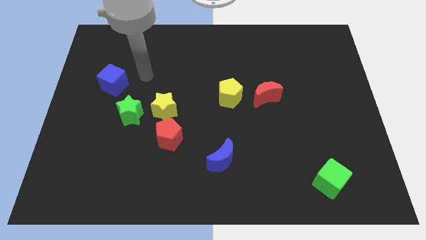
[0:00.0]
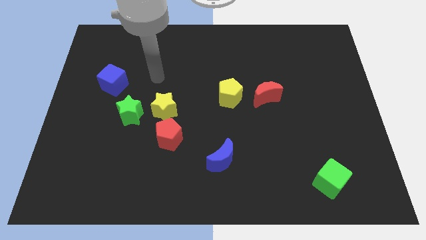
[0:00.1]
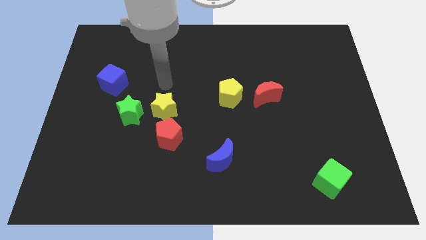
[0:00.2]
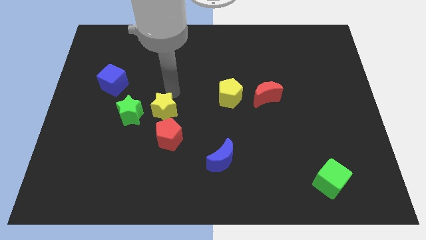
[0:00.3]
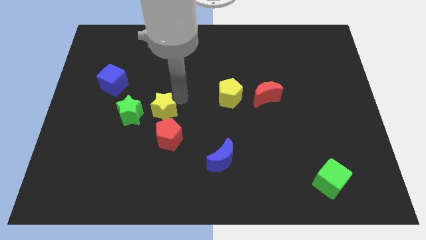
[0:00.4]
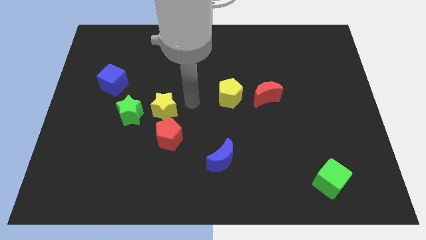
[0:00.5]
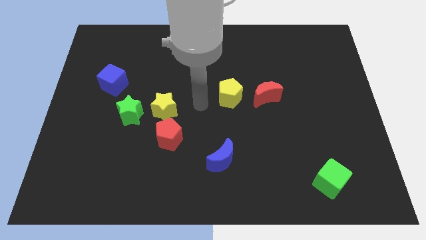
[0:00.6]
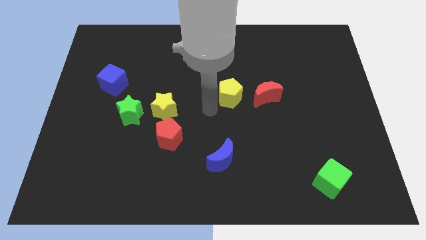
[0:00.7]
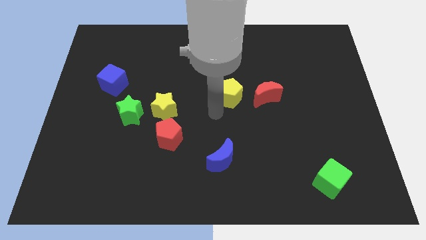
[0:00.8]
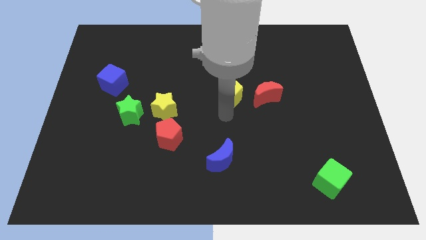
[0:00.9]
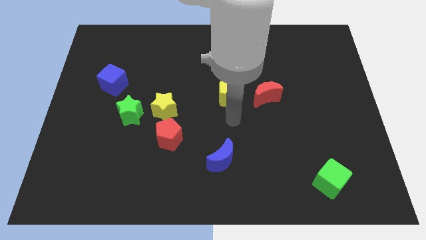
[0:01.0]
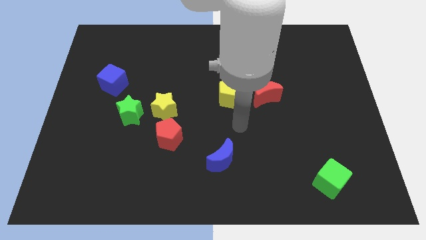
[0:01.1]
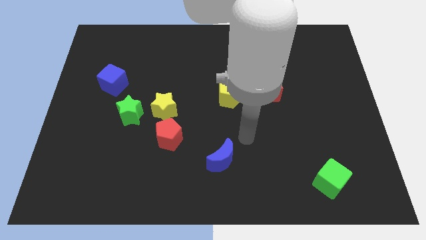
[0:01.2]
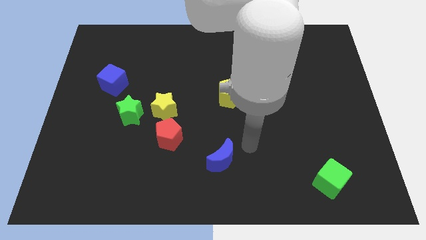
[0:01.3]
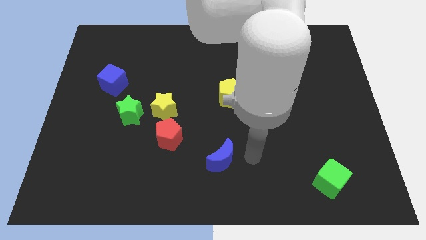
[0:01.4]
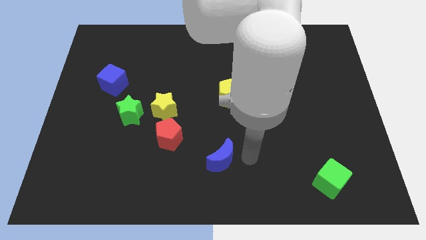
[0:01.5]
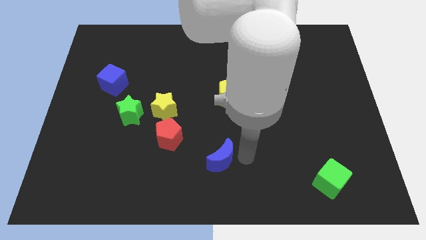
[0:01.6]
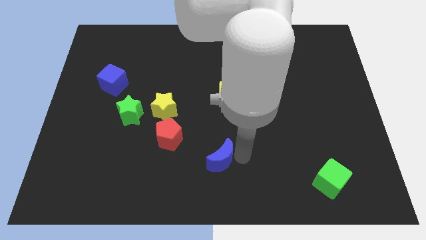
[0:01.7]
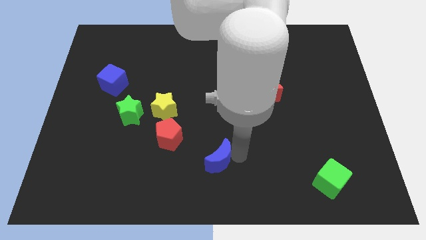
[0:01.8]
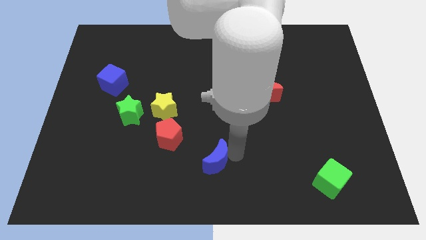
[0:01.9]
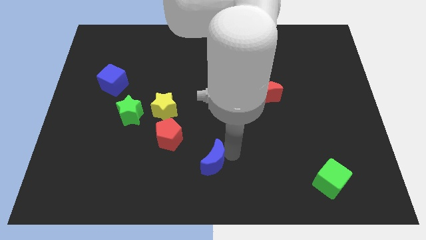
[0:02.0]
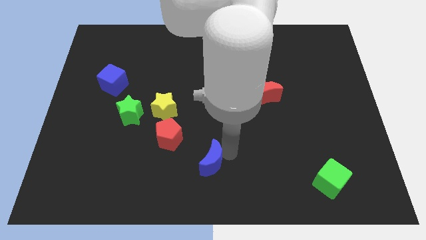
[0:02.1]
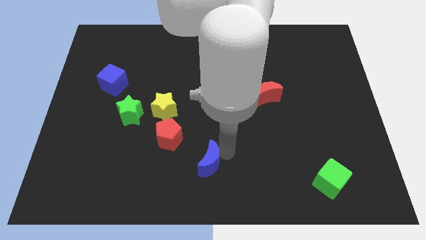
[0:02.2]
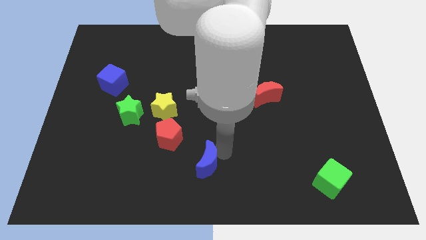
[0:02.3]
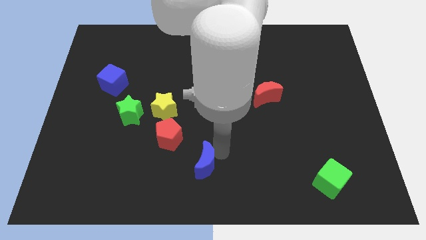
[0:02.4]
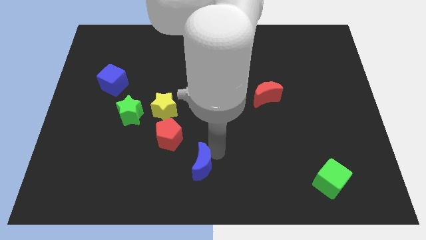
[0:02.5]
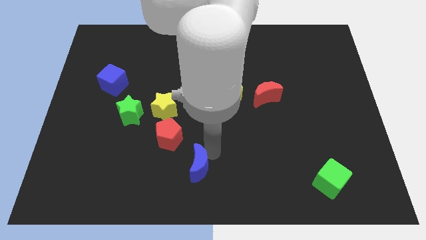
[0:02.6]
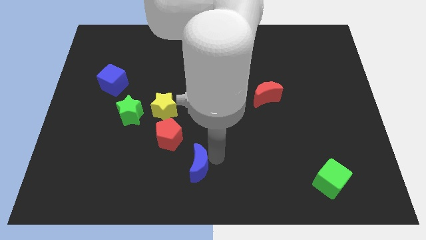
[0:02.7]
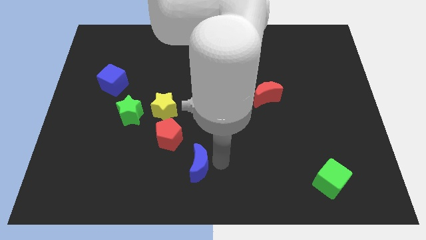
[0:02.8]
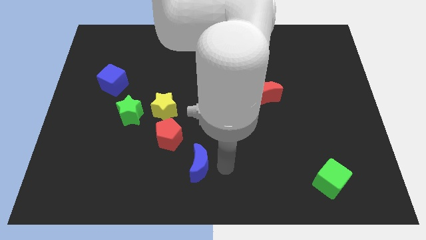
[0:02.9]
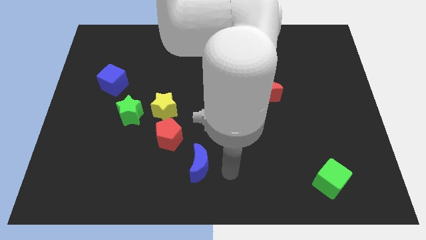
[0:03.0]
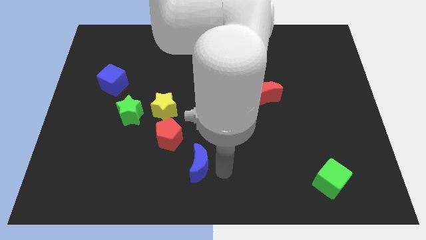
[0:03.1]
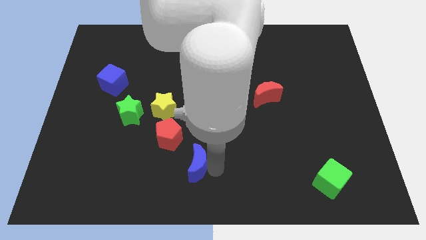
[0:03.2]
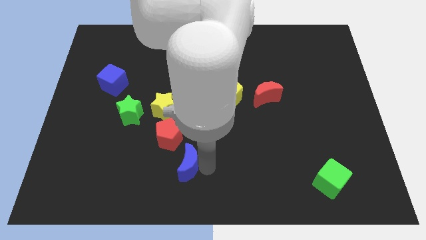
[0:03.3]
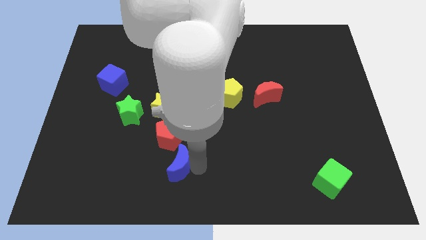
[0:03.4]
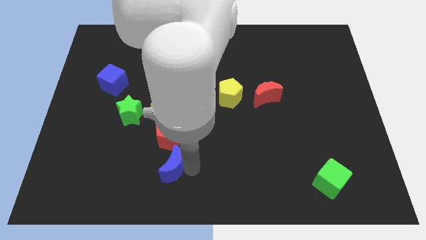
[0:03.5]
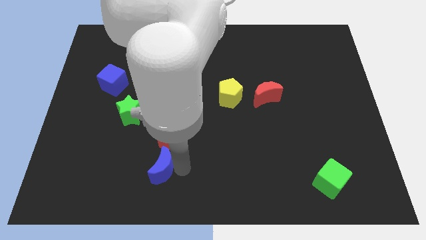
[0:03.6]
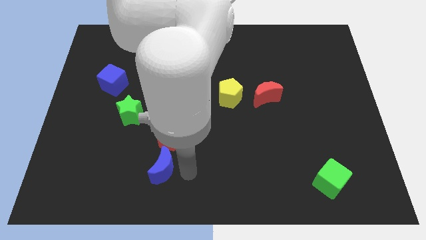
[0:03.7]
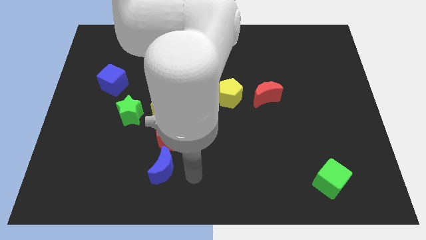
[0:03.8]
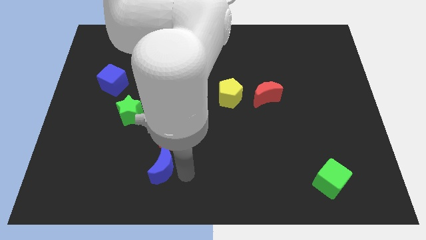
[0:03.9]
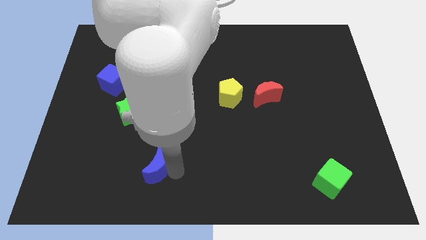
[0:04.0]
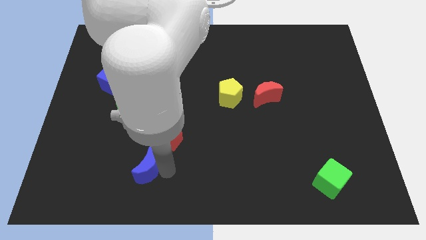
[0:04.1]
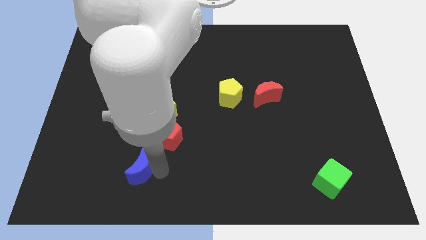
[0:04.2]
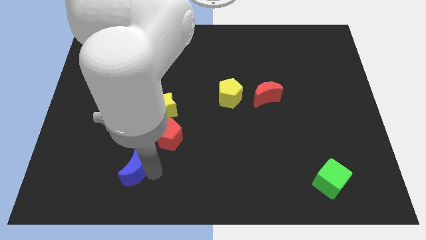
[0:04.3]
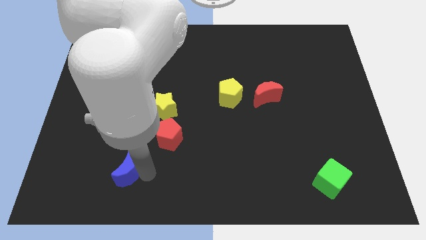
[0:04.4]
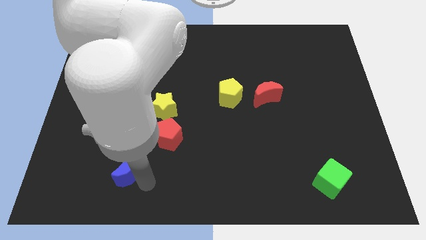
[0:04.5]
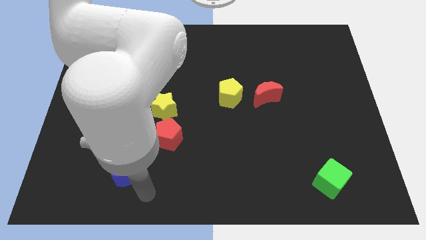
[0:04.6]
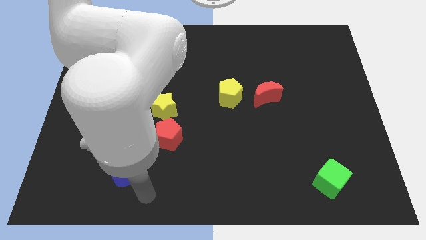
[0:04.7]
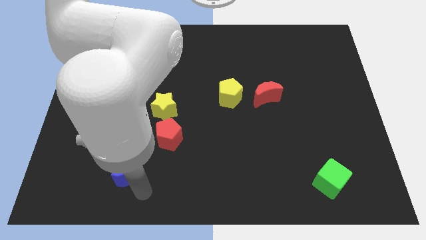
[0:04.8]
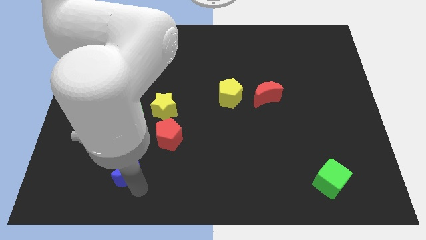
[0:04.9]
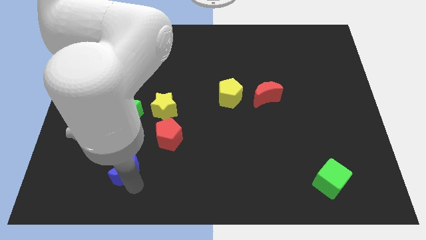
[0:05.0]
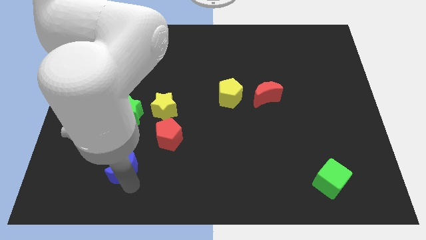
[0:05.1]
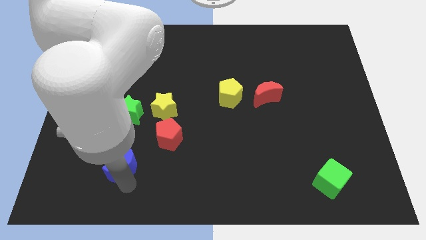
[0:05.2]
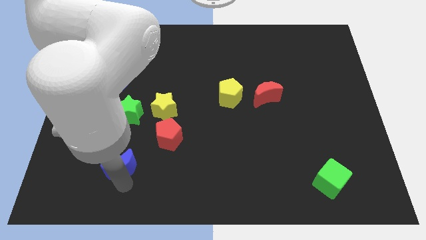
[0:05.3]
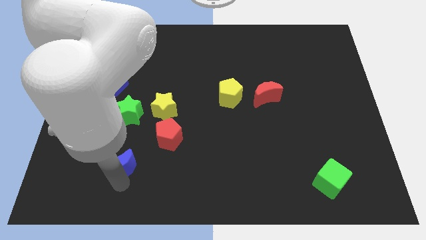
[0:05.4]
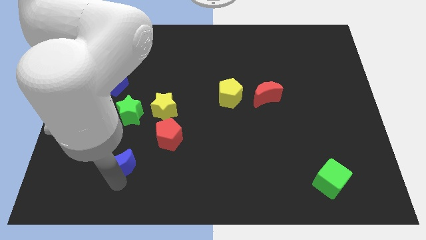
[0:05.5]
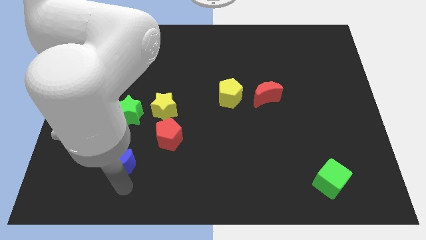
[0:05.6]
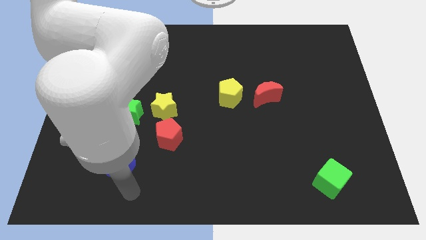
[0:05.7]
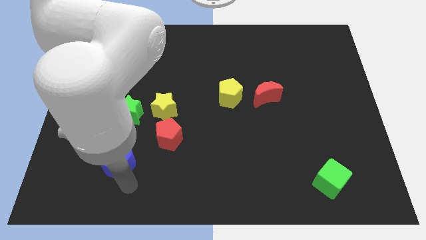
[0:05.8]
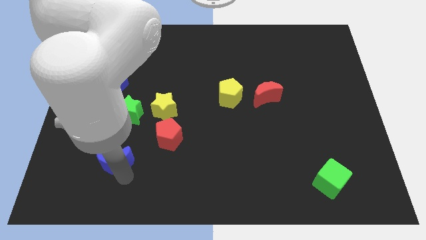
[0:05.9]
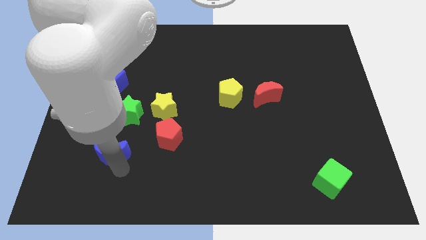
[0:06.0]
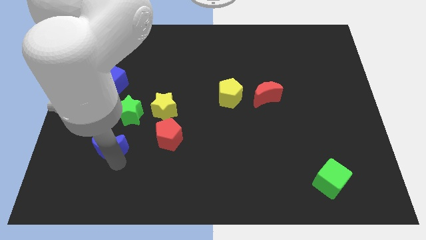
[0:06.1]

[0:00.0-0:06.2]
move the blue moon to the bottom left side of the green star

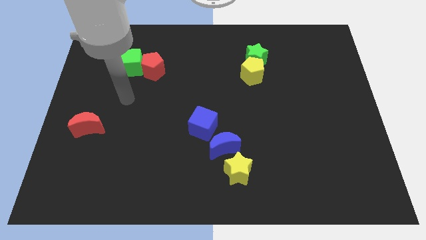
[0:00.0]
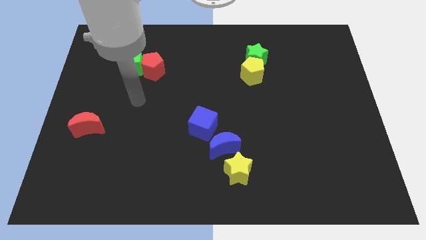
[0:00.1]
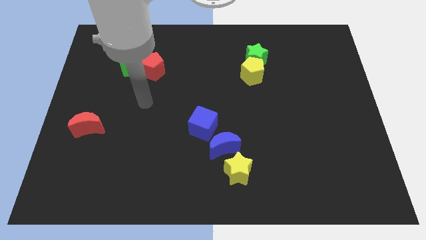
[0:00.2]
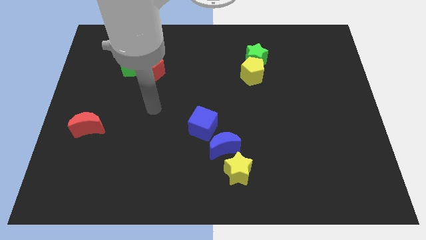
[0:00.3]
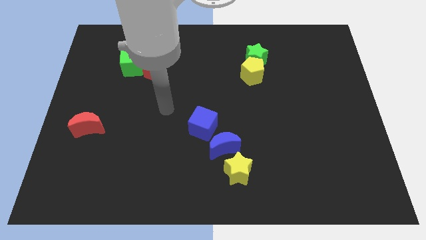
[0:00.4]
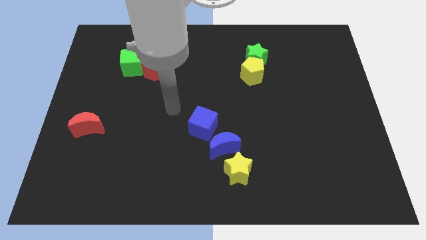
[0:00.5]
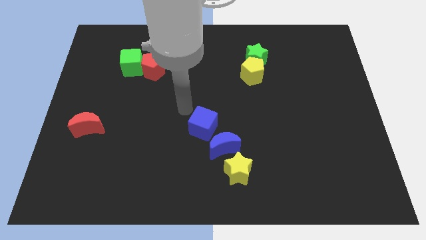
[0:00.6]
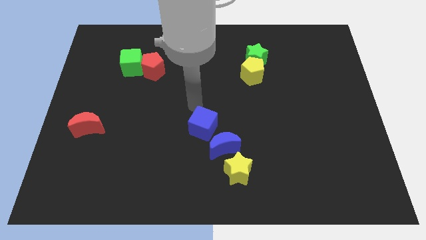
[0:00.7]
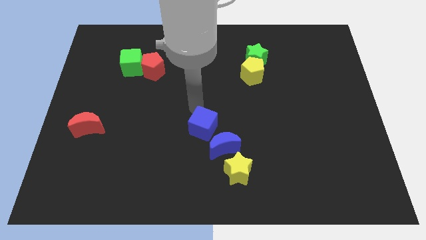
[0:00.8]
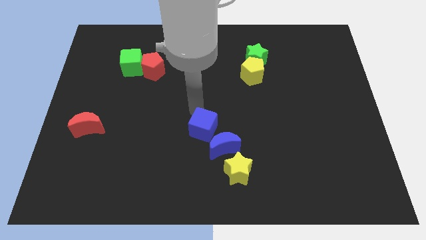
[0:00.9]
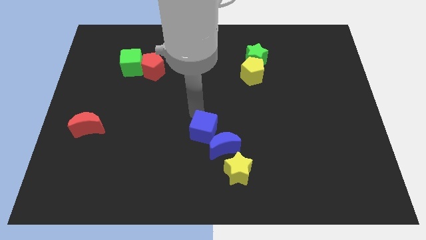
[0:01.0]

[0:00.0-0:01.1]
put the blue cube to the top left of the yellow star

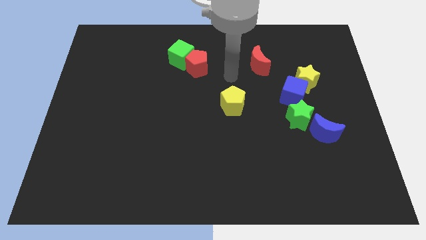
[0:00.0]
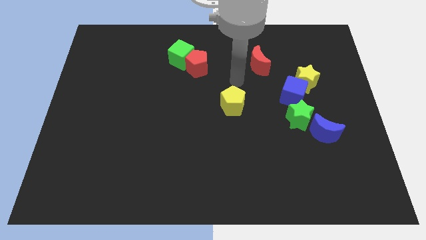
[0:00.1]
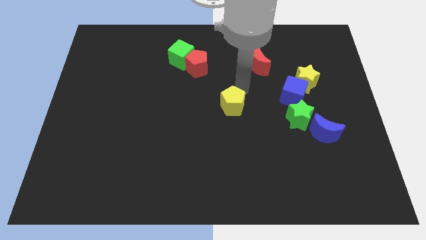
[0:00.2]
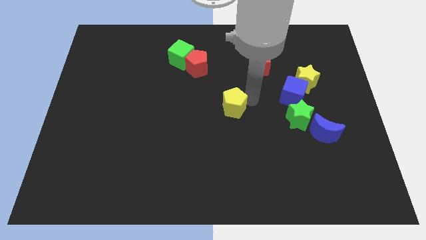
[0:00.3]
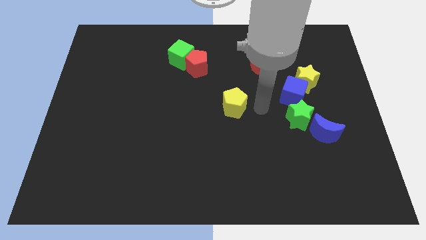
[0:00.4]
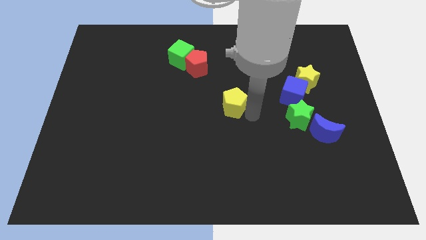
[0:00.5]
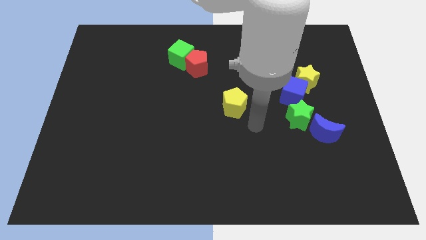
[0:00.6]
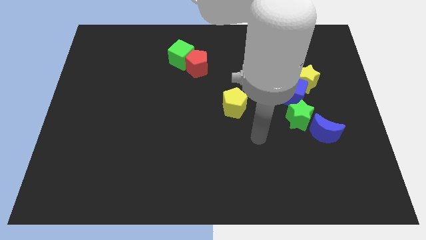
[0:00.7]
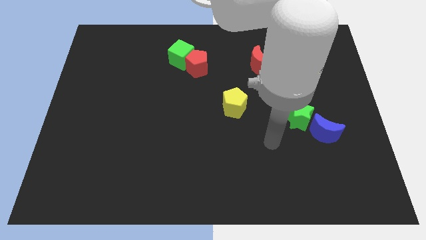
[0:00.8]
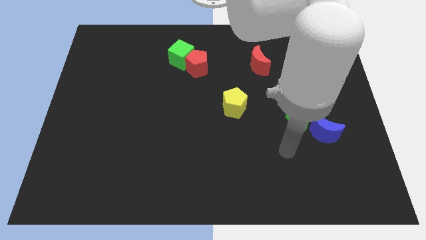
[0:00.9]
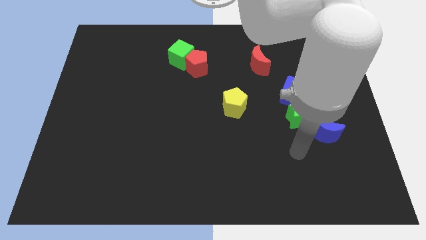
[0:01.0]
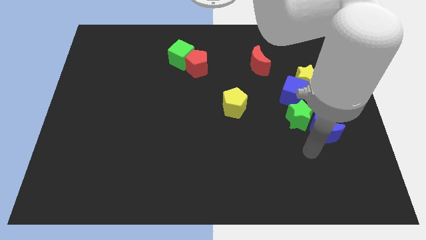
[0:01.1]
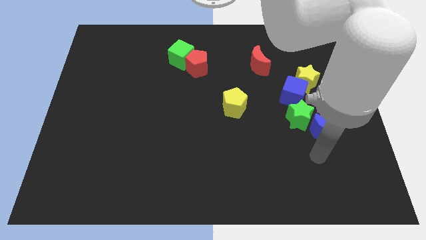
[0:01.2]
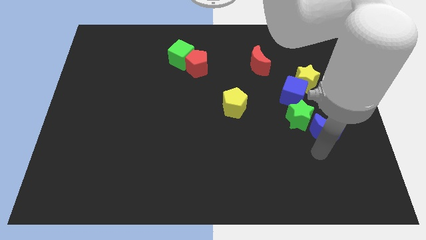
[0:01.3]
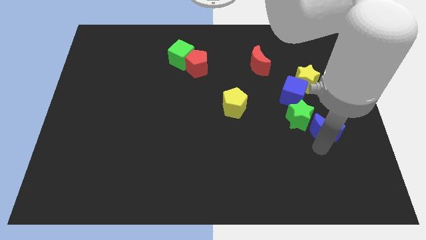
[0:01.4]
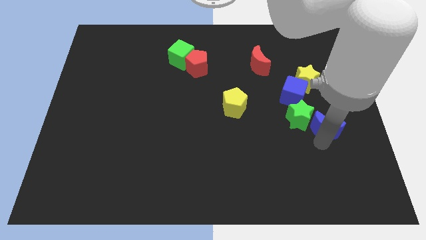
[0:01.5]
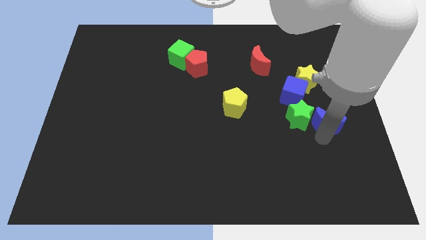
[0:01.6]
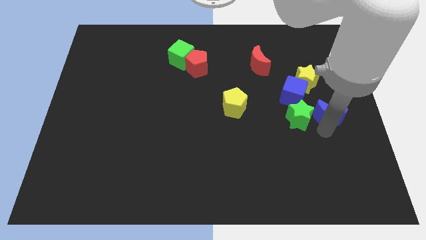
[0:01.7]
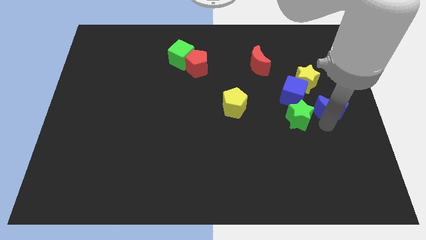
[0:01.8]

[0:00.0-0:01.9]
put the blue moon diagonally down and to the right of the yellow star
